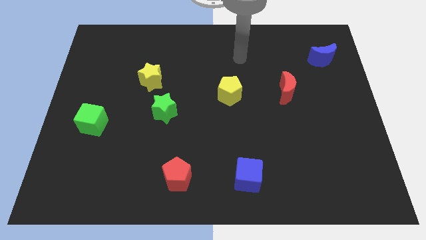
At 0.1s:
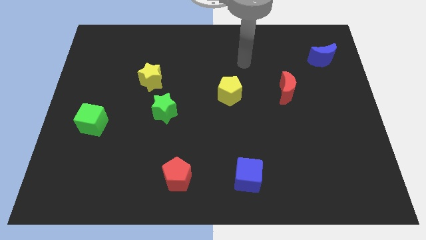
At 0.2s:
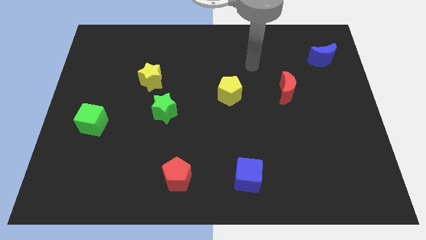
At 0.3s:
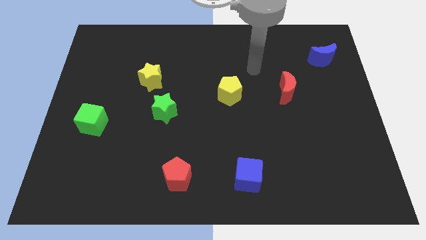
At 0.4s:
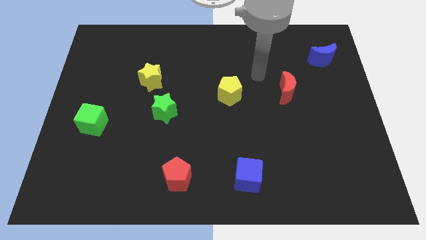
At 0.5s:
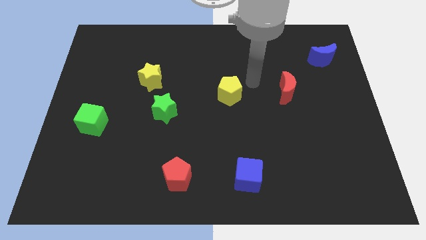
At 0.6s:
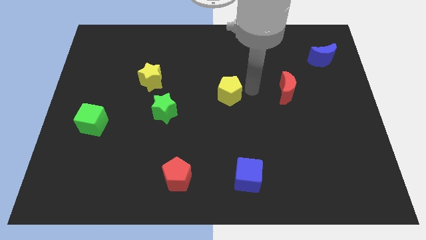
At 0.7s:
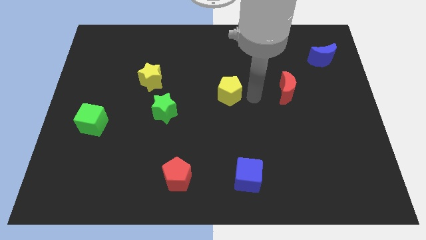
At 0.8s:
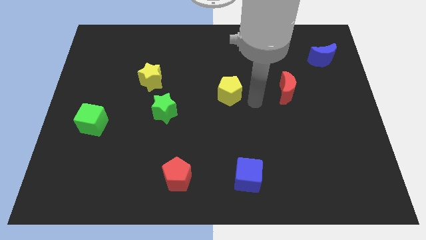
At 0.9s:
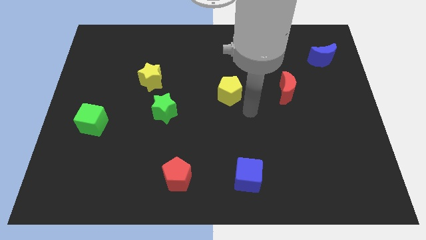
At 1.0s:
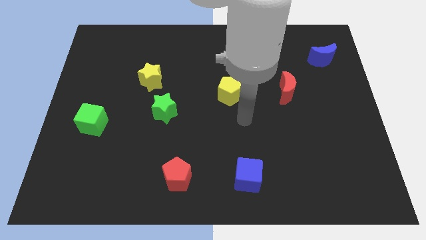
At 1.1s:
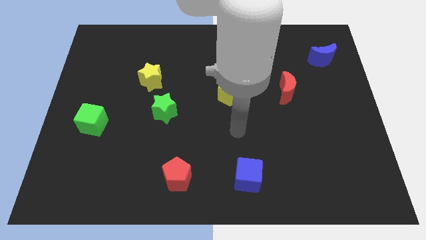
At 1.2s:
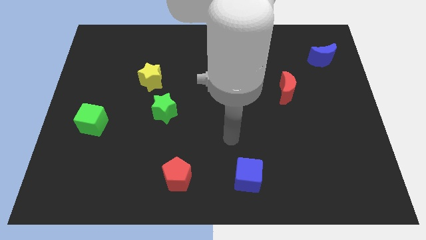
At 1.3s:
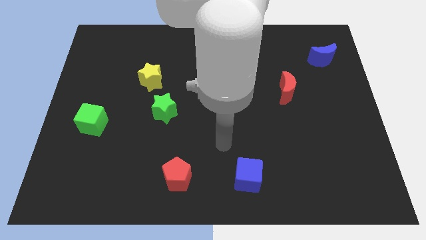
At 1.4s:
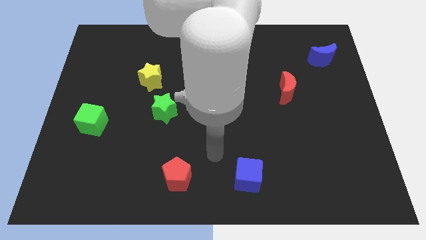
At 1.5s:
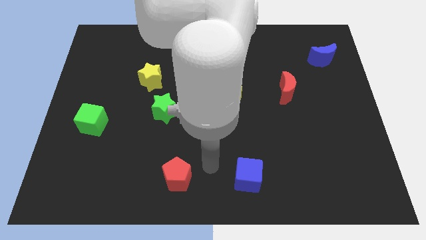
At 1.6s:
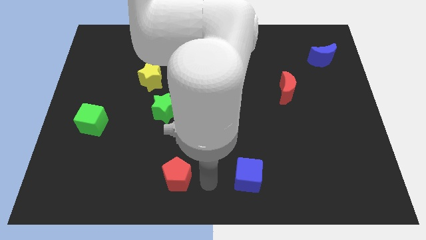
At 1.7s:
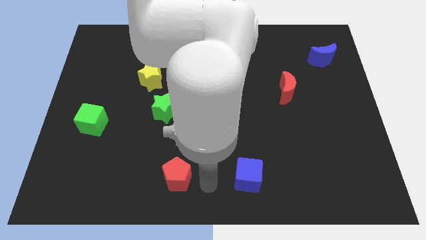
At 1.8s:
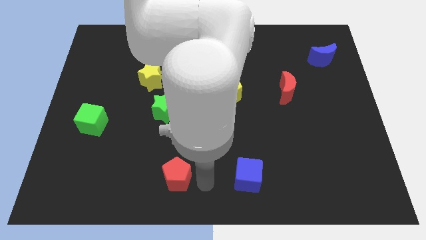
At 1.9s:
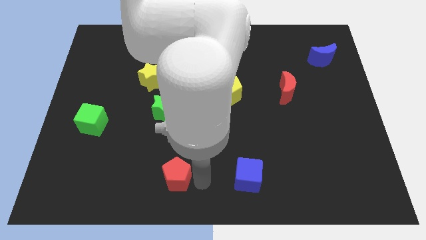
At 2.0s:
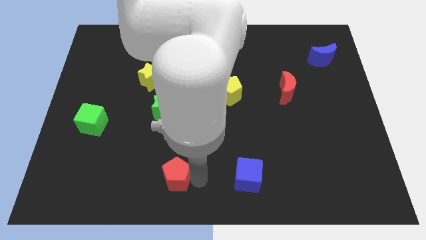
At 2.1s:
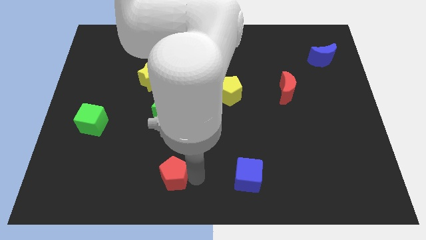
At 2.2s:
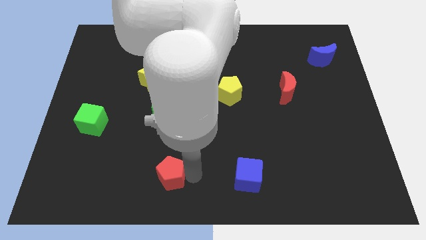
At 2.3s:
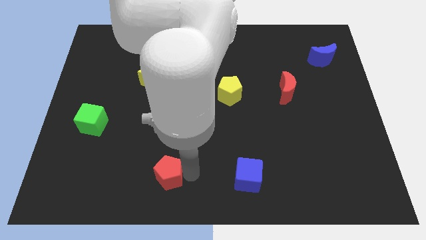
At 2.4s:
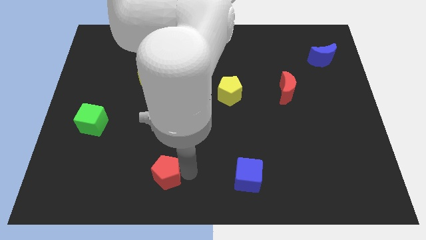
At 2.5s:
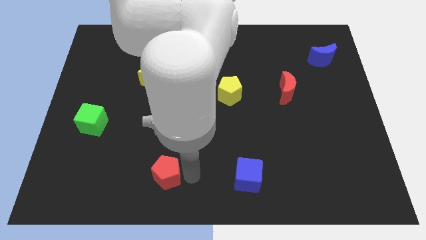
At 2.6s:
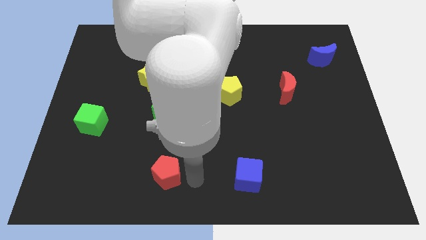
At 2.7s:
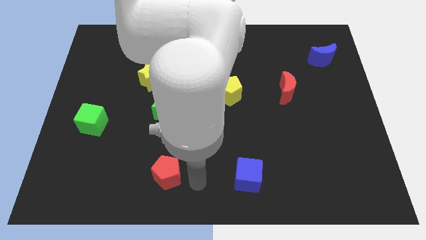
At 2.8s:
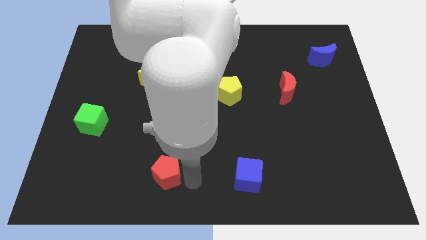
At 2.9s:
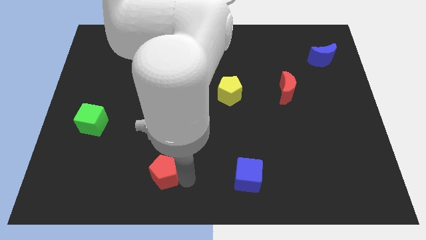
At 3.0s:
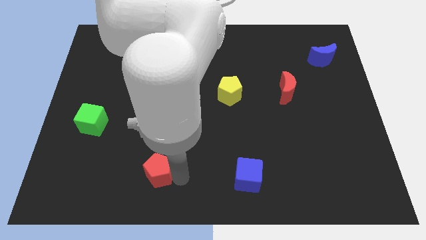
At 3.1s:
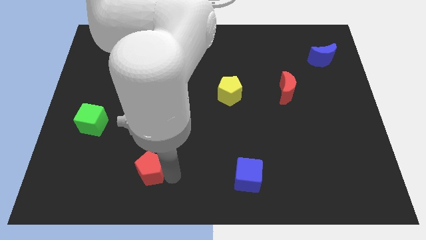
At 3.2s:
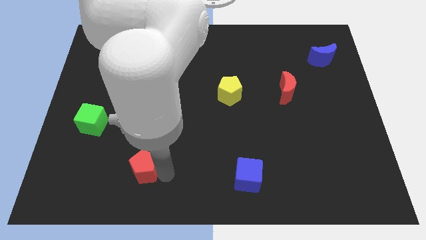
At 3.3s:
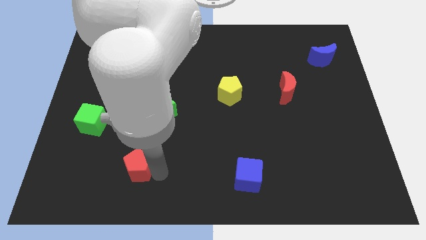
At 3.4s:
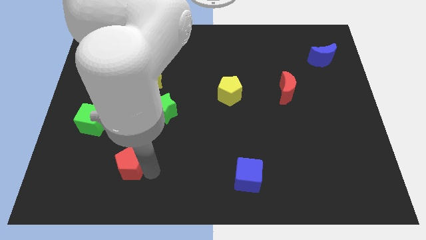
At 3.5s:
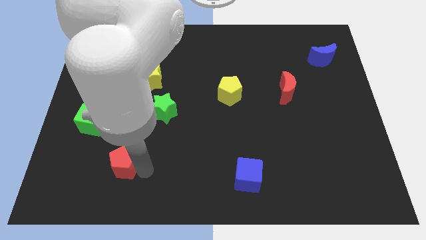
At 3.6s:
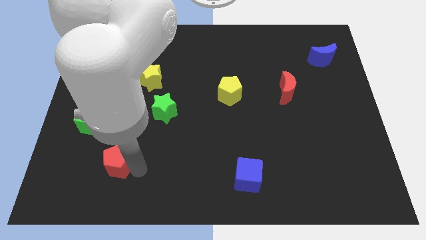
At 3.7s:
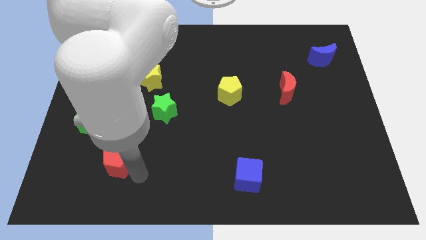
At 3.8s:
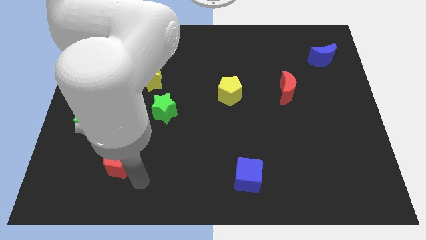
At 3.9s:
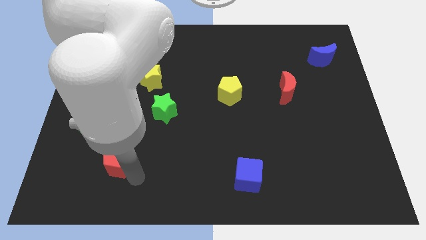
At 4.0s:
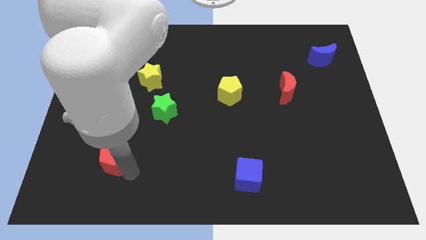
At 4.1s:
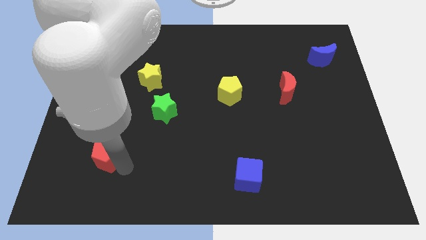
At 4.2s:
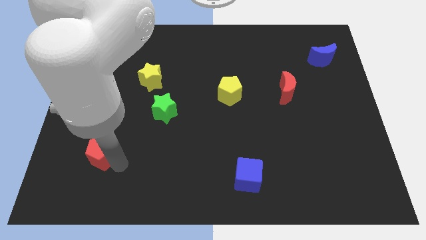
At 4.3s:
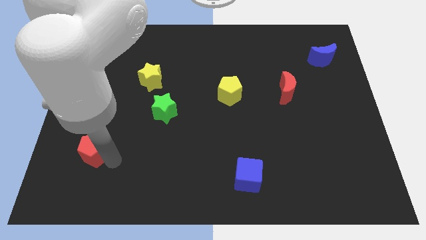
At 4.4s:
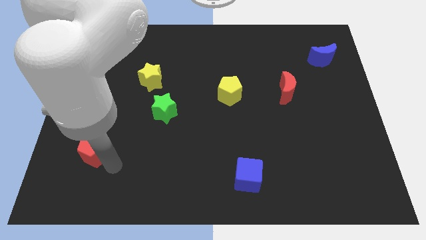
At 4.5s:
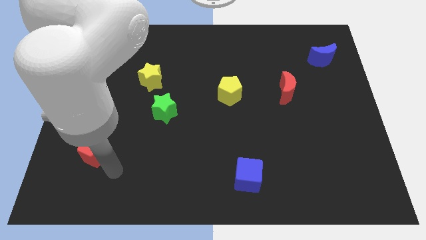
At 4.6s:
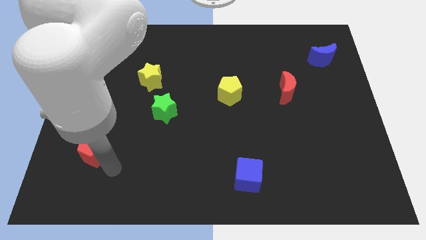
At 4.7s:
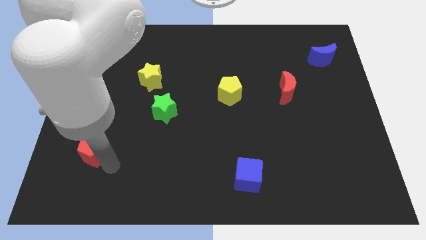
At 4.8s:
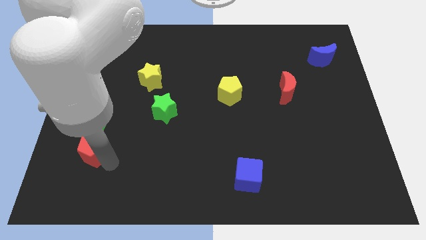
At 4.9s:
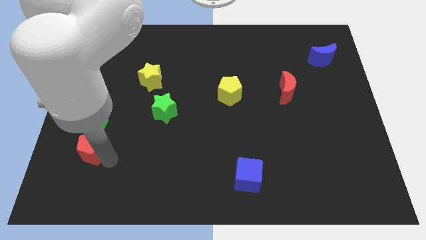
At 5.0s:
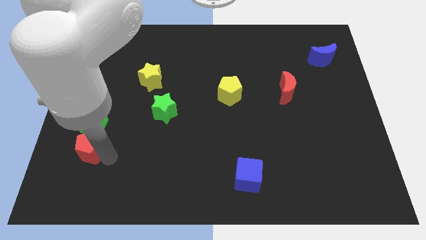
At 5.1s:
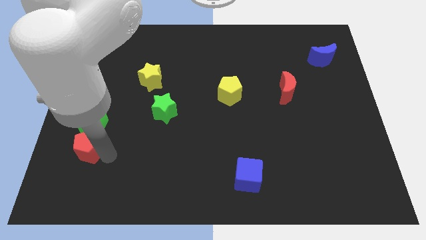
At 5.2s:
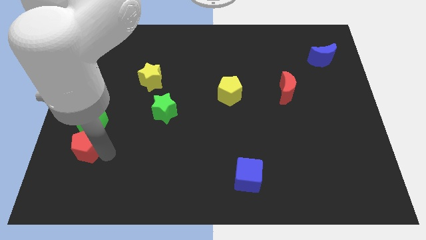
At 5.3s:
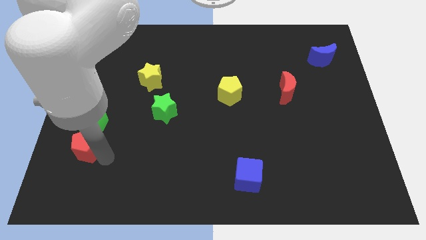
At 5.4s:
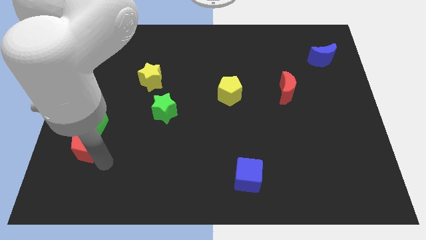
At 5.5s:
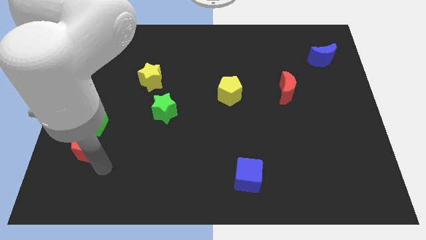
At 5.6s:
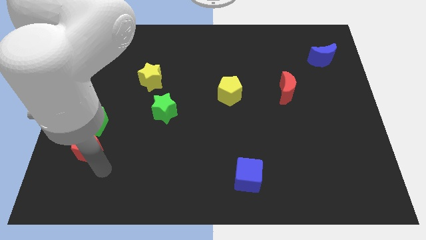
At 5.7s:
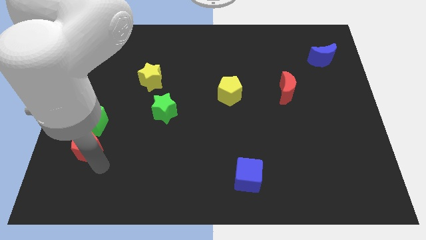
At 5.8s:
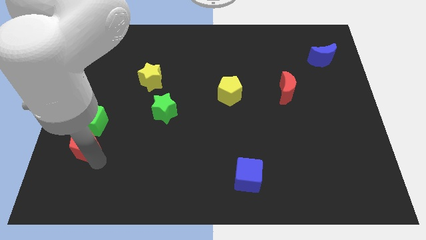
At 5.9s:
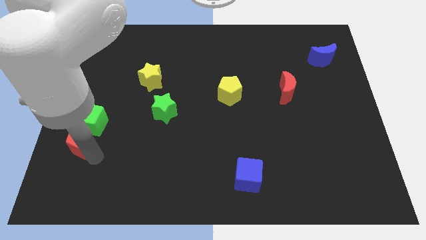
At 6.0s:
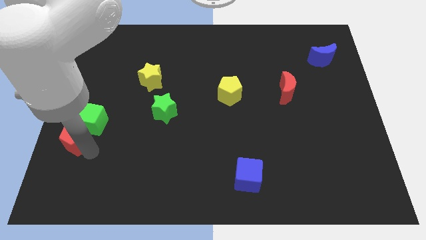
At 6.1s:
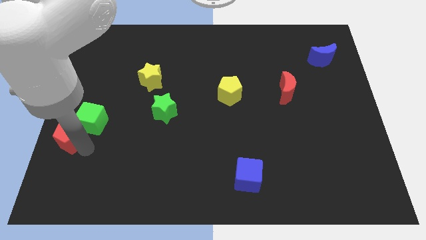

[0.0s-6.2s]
move the red pentagon to the left side

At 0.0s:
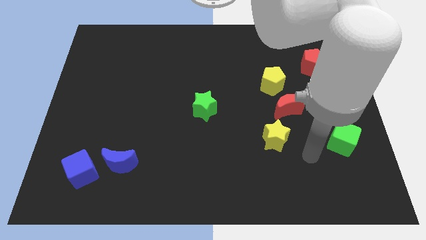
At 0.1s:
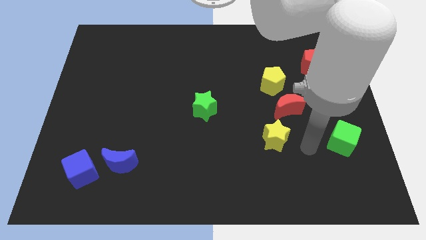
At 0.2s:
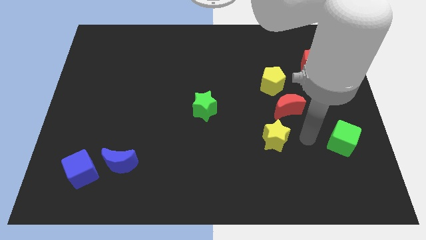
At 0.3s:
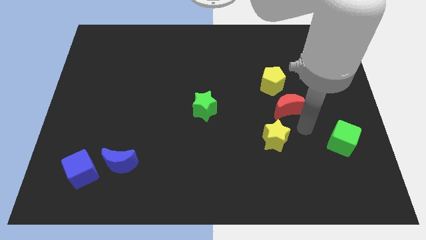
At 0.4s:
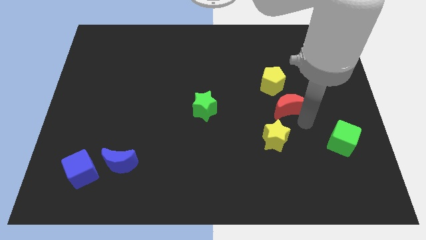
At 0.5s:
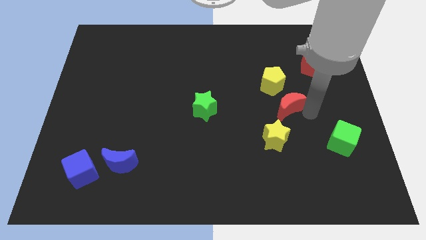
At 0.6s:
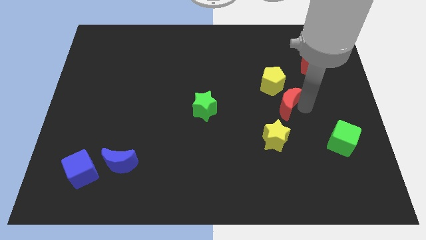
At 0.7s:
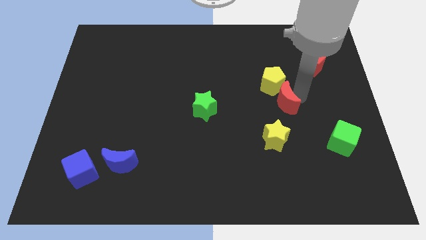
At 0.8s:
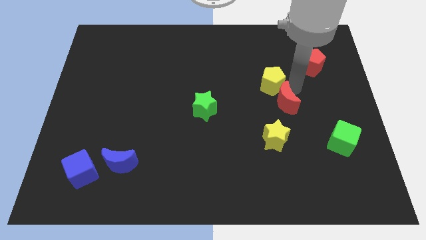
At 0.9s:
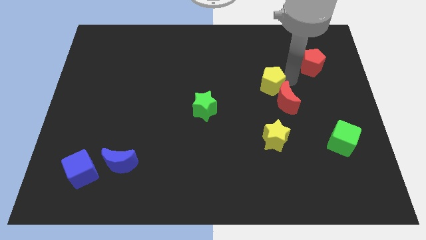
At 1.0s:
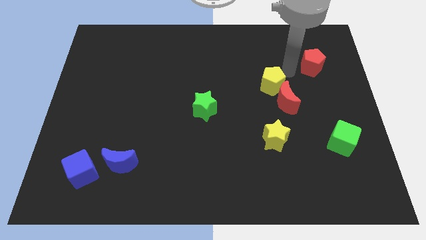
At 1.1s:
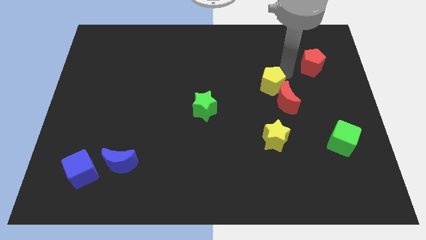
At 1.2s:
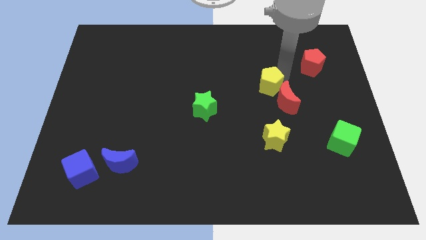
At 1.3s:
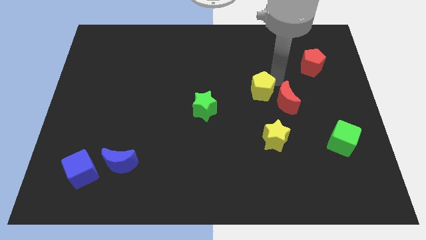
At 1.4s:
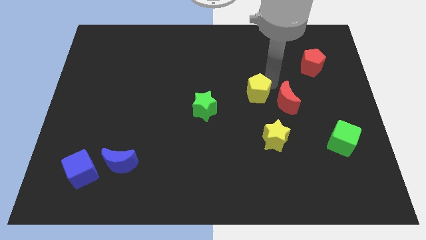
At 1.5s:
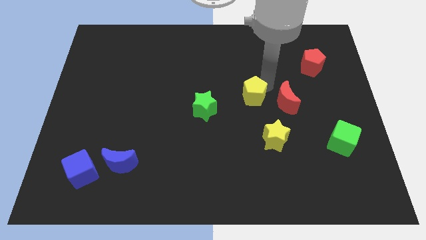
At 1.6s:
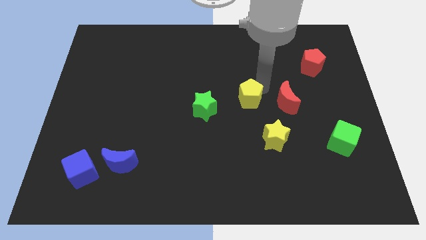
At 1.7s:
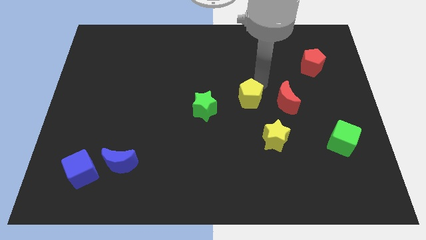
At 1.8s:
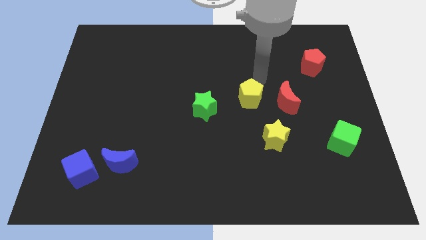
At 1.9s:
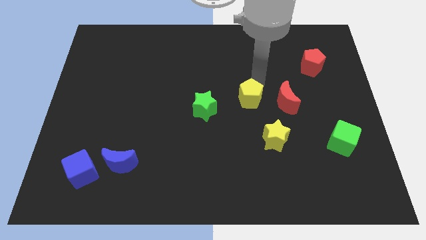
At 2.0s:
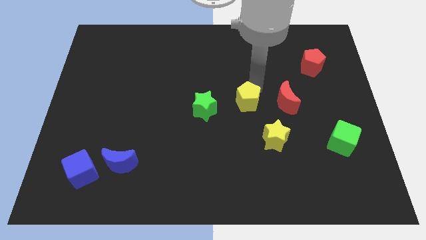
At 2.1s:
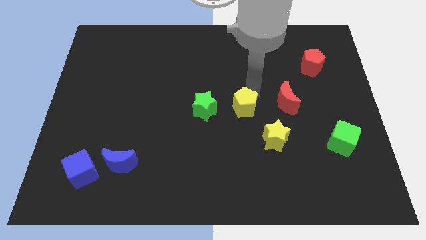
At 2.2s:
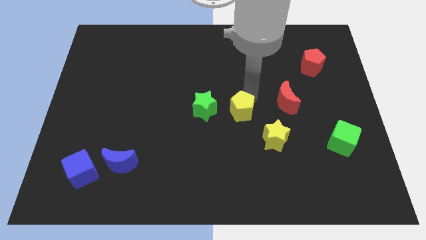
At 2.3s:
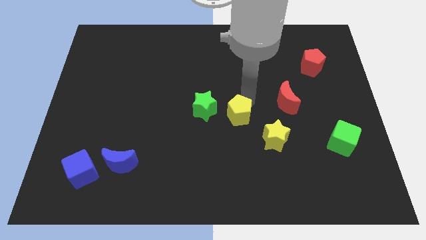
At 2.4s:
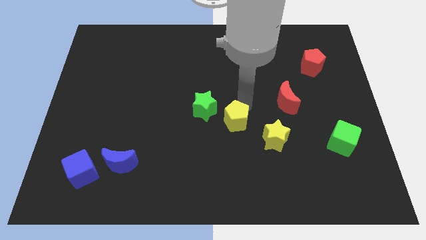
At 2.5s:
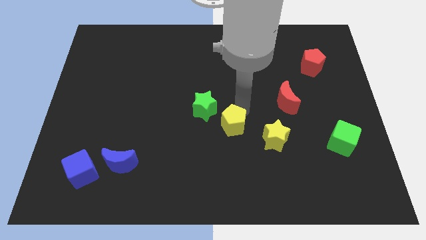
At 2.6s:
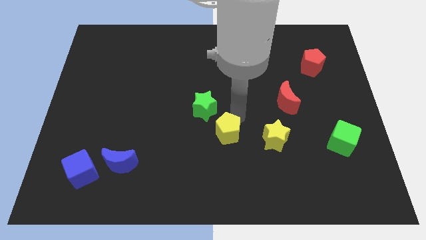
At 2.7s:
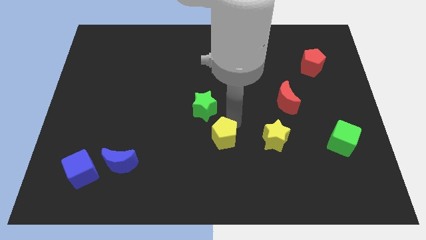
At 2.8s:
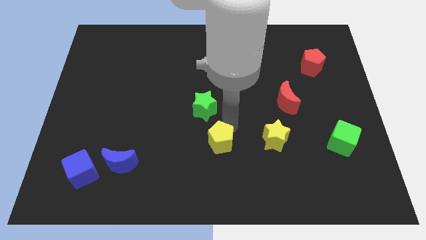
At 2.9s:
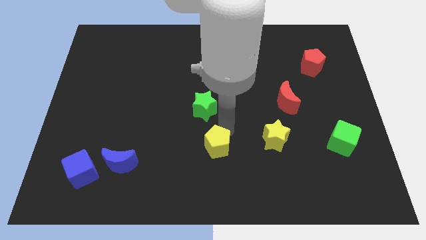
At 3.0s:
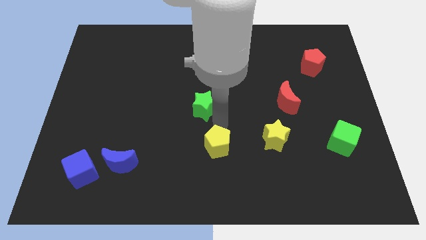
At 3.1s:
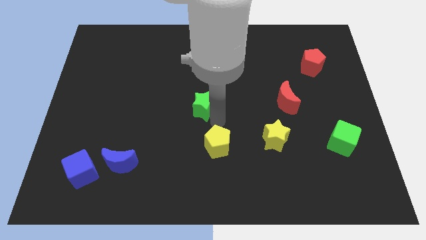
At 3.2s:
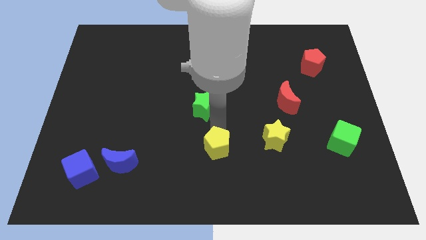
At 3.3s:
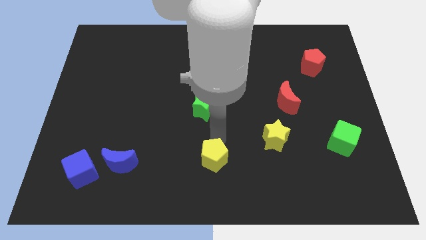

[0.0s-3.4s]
put the yellow pentagon to the bottom
